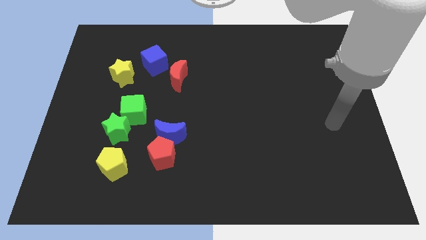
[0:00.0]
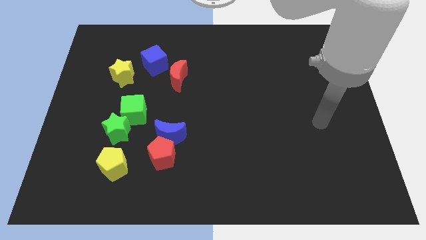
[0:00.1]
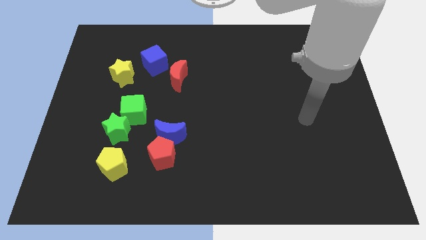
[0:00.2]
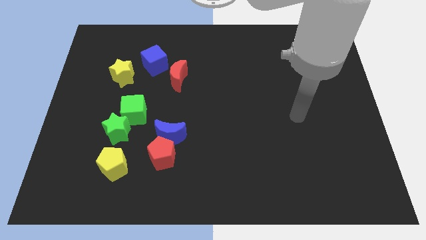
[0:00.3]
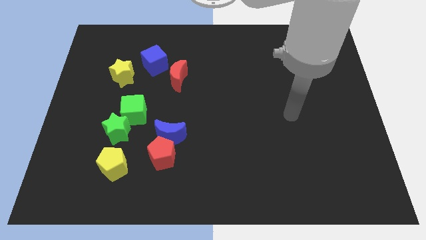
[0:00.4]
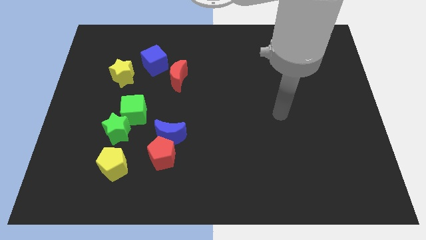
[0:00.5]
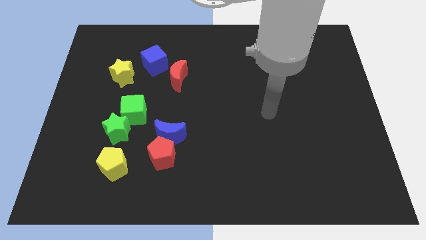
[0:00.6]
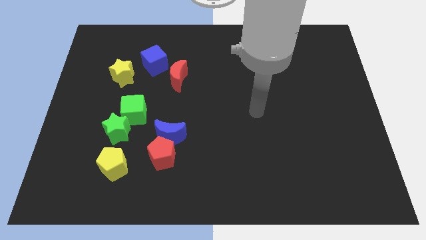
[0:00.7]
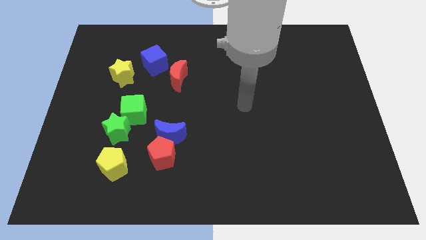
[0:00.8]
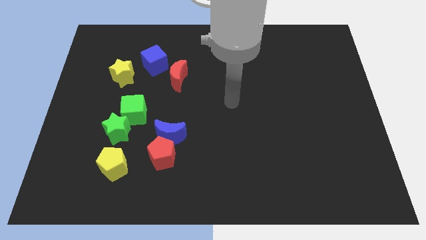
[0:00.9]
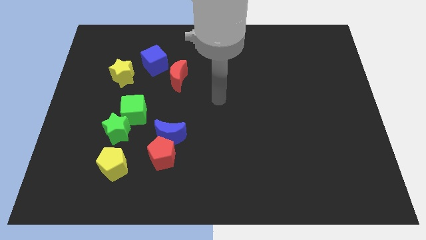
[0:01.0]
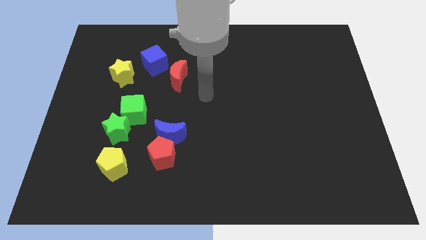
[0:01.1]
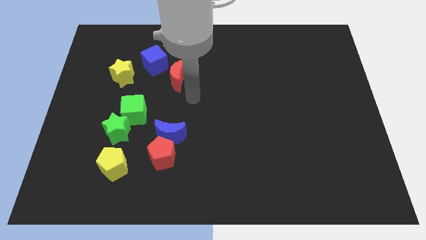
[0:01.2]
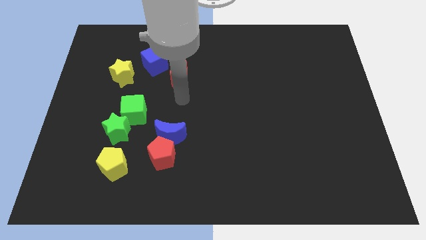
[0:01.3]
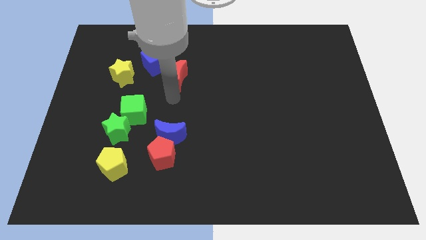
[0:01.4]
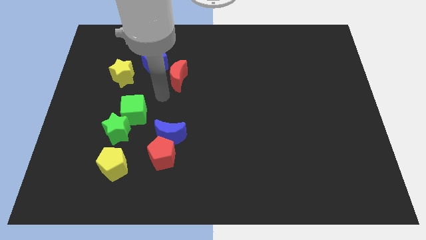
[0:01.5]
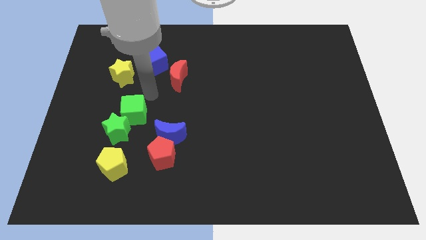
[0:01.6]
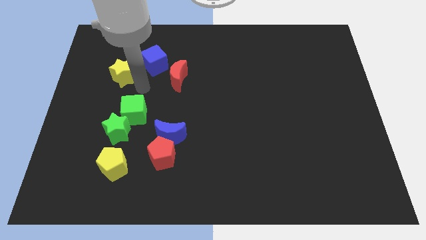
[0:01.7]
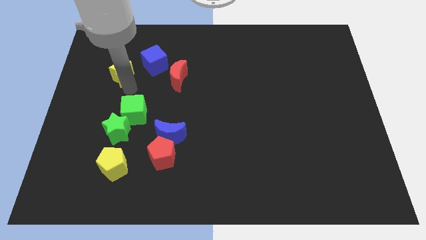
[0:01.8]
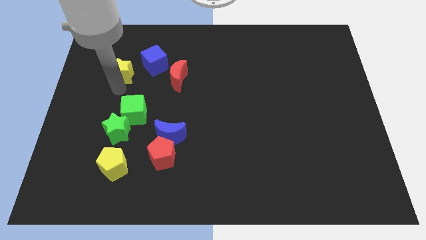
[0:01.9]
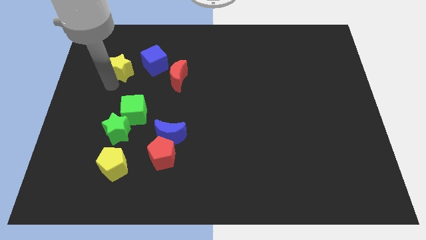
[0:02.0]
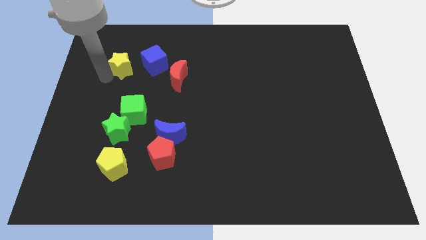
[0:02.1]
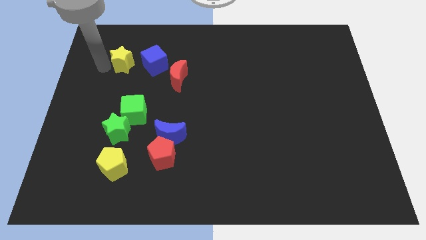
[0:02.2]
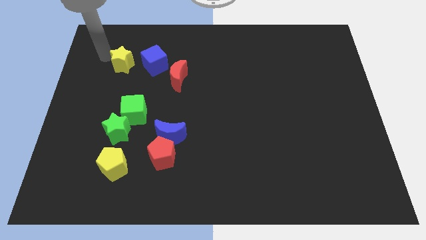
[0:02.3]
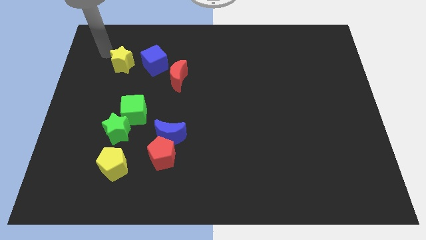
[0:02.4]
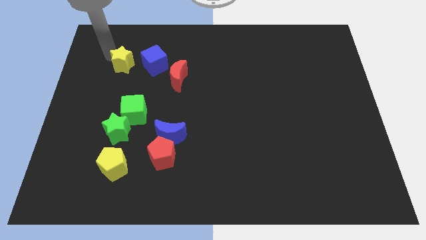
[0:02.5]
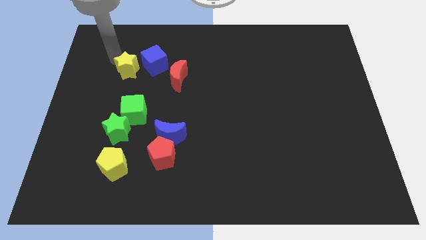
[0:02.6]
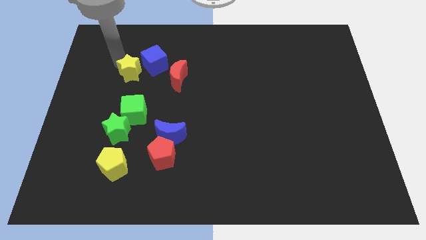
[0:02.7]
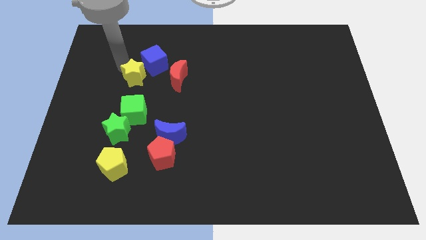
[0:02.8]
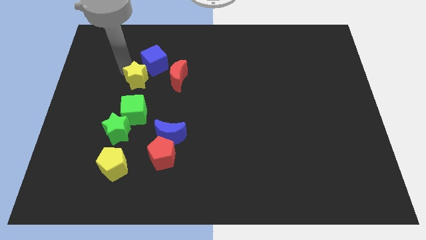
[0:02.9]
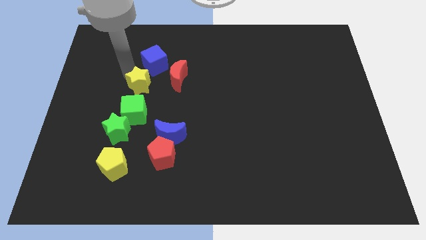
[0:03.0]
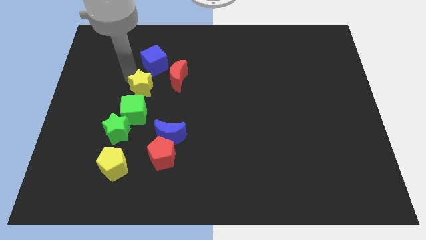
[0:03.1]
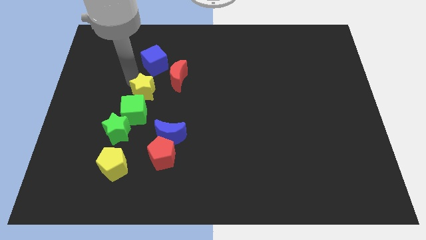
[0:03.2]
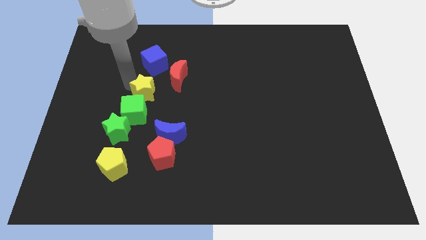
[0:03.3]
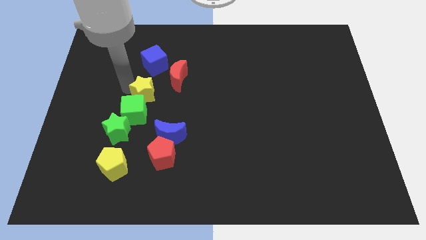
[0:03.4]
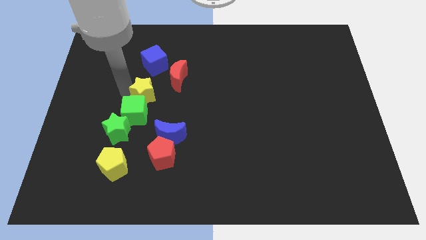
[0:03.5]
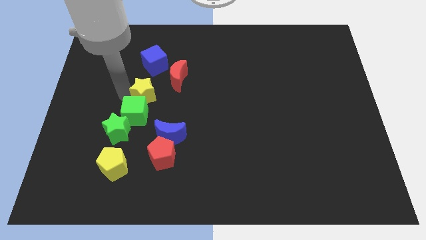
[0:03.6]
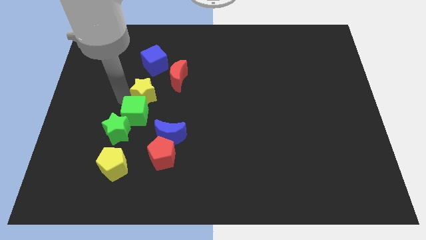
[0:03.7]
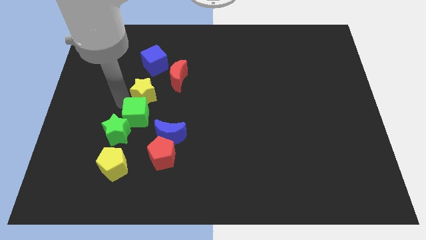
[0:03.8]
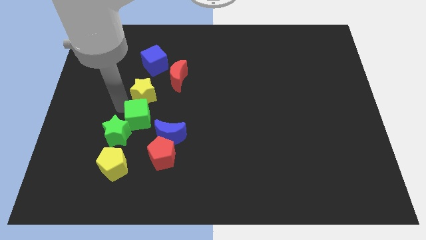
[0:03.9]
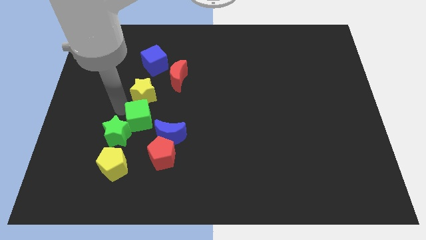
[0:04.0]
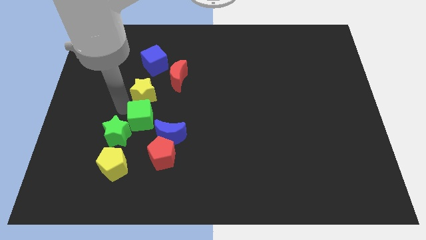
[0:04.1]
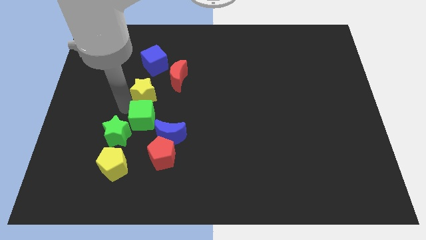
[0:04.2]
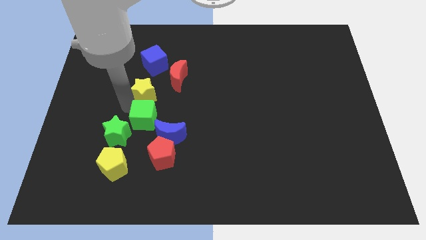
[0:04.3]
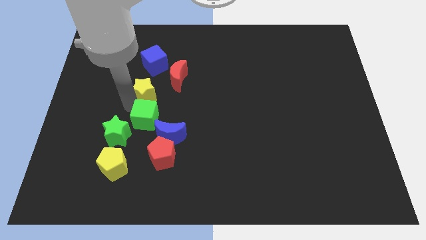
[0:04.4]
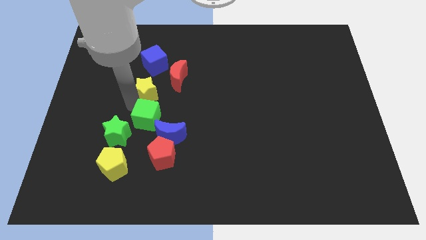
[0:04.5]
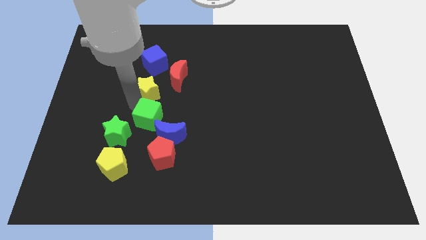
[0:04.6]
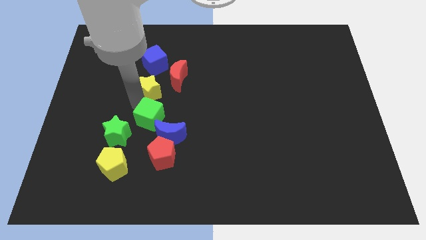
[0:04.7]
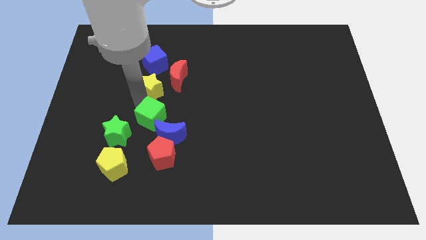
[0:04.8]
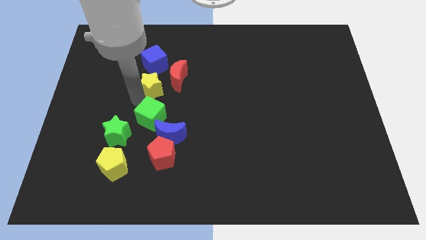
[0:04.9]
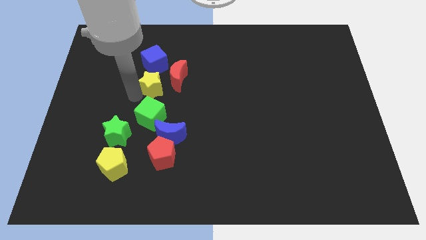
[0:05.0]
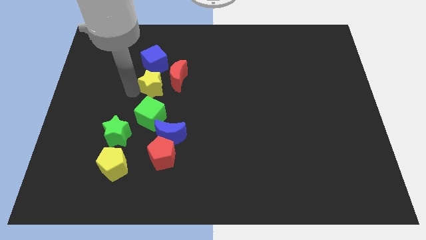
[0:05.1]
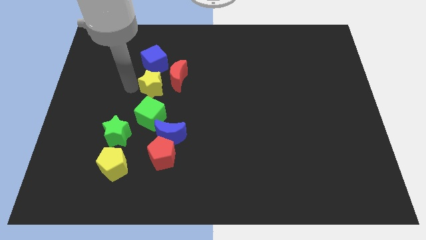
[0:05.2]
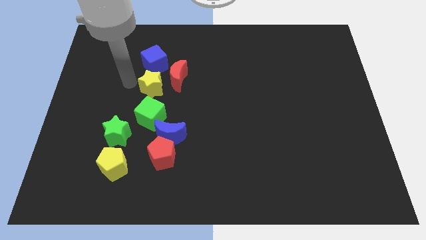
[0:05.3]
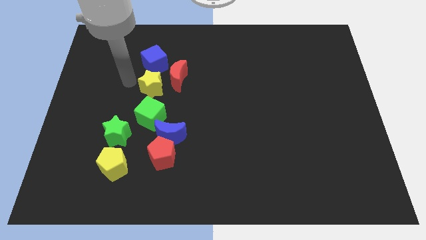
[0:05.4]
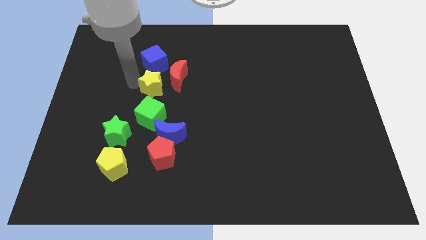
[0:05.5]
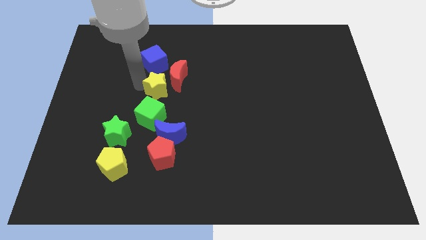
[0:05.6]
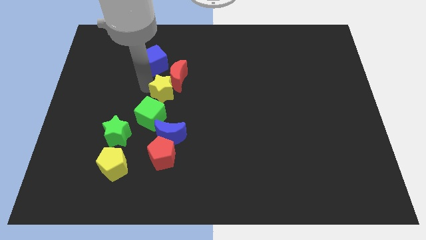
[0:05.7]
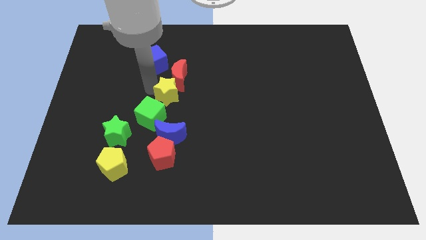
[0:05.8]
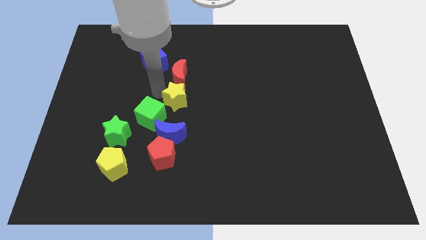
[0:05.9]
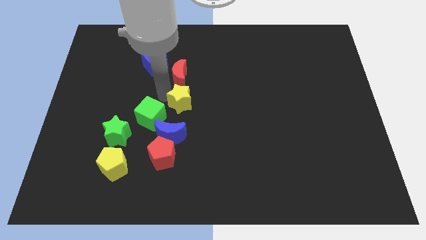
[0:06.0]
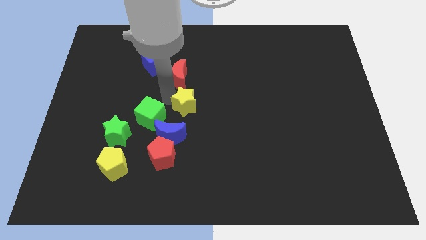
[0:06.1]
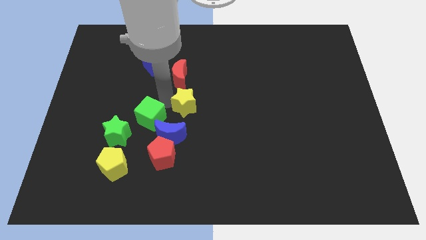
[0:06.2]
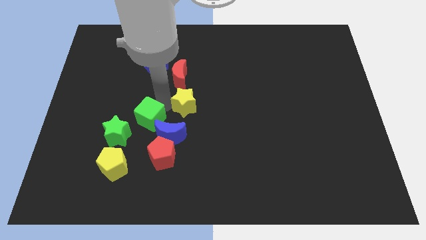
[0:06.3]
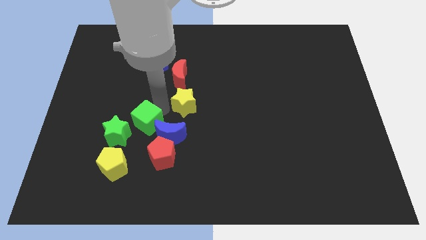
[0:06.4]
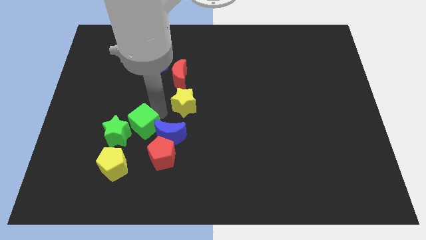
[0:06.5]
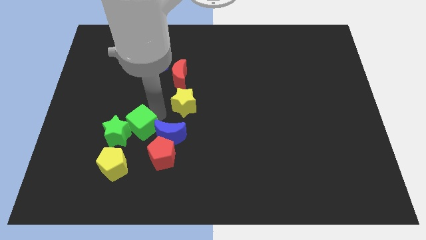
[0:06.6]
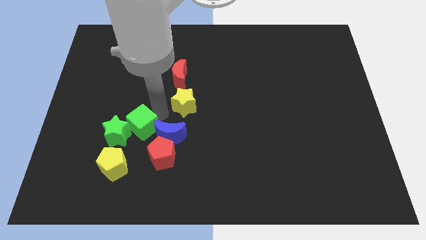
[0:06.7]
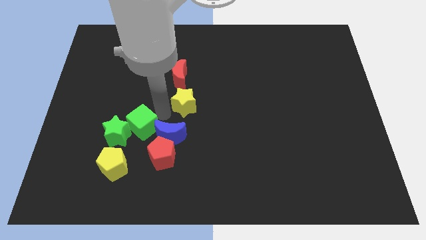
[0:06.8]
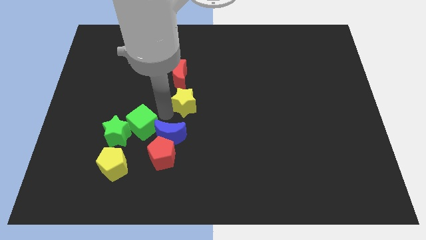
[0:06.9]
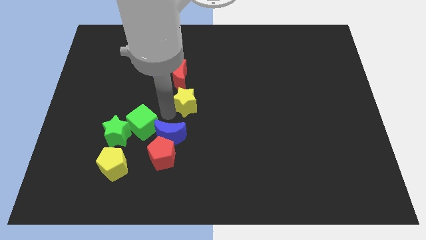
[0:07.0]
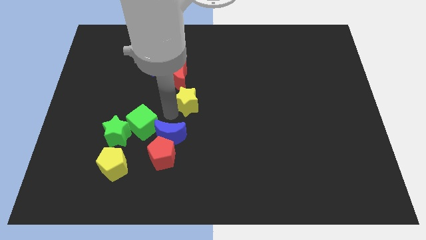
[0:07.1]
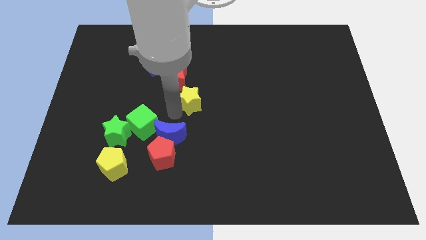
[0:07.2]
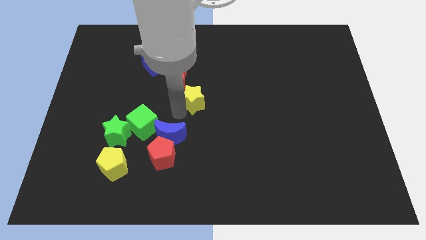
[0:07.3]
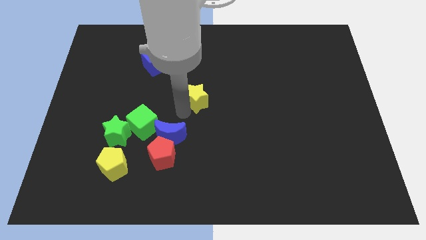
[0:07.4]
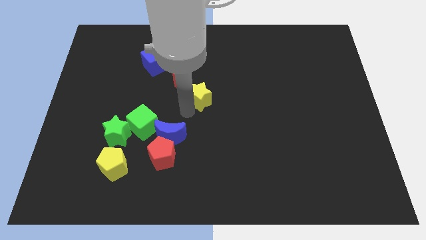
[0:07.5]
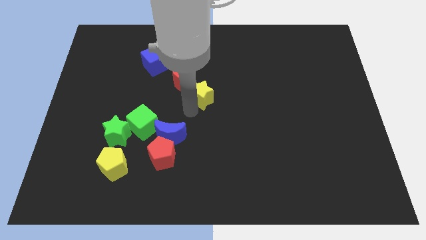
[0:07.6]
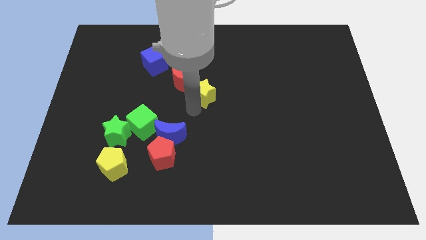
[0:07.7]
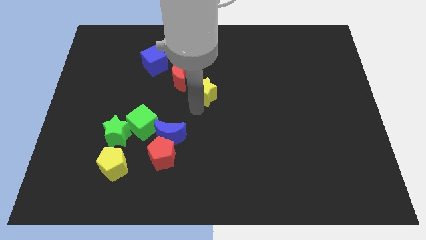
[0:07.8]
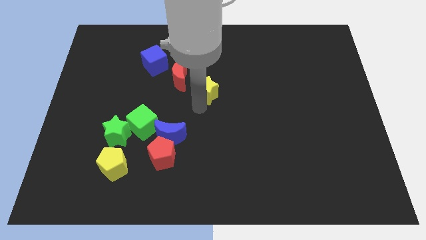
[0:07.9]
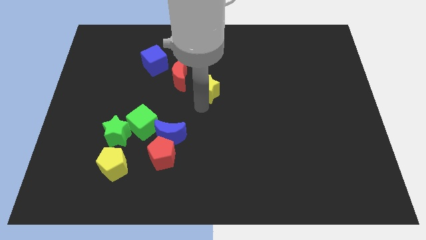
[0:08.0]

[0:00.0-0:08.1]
push the yellow star to the right
